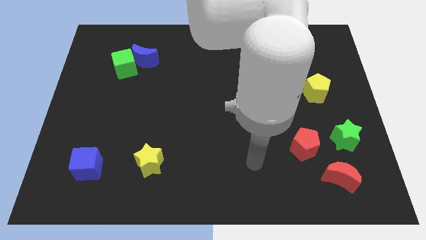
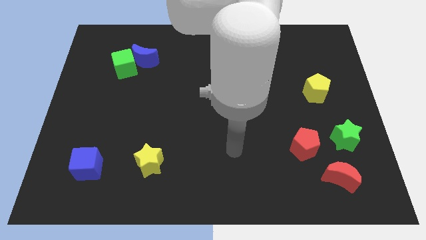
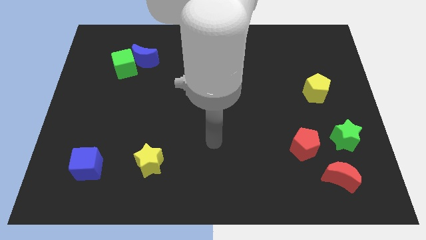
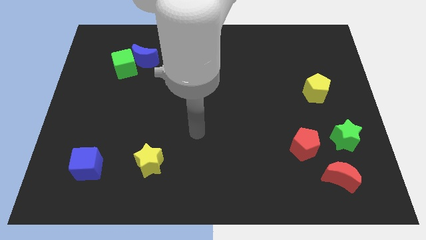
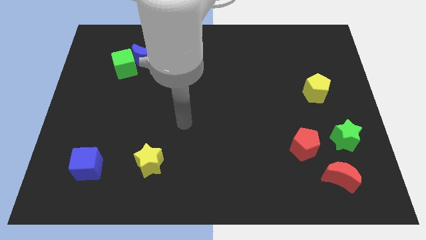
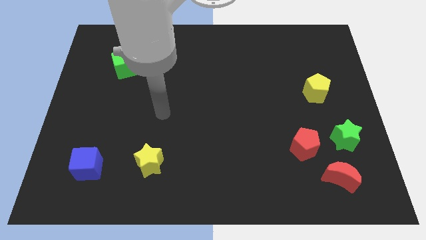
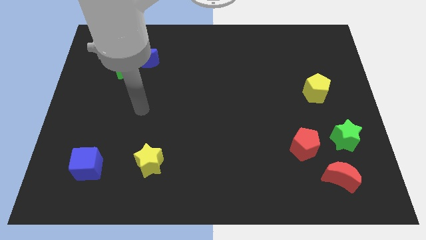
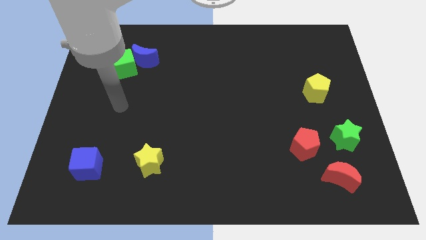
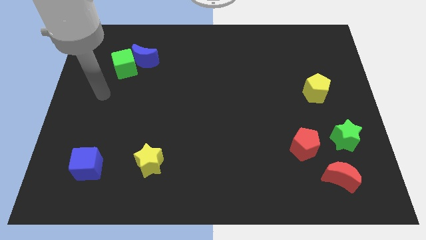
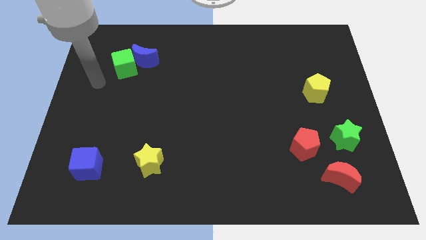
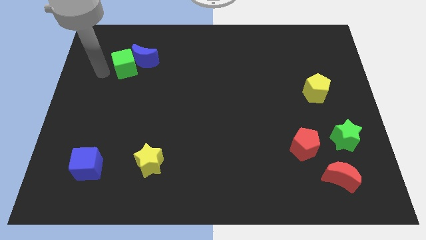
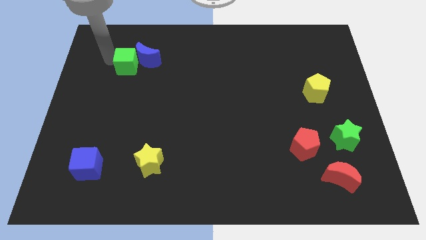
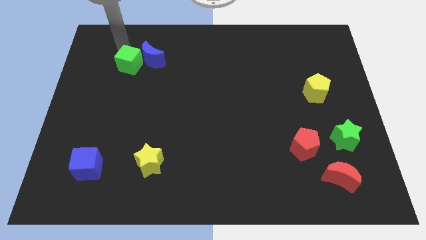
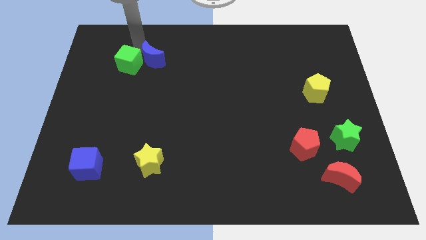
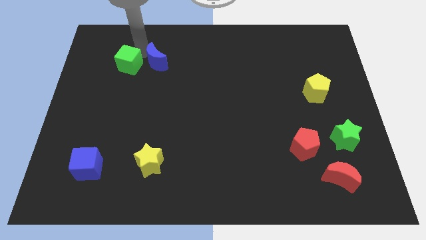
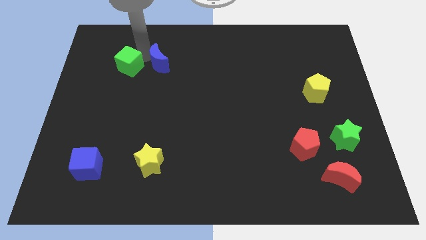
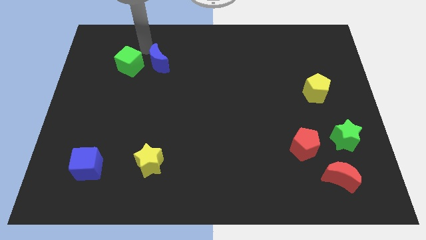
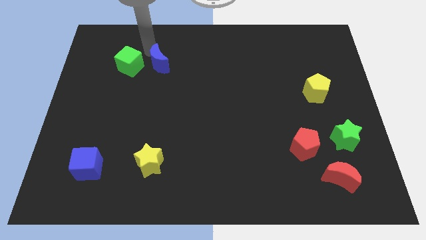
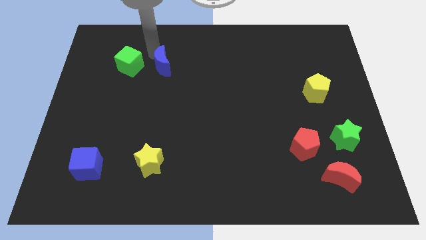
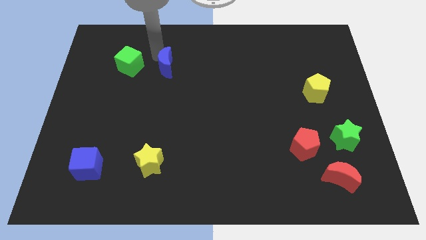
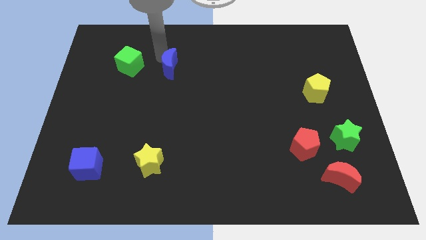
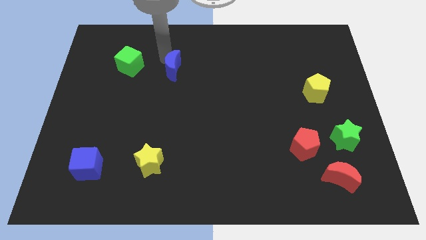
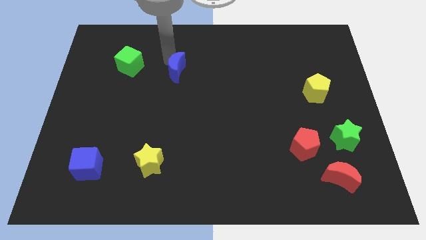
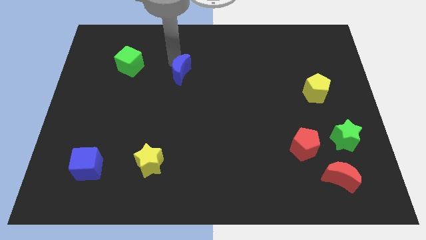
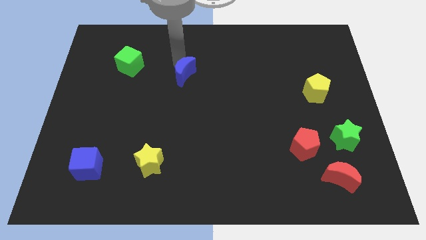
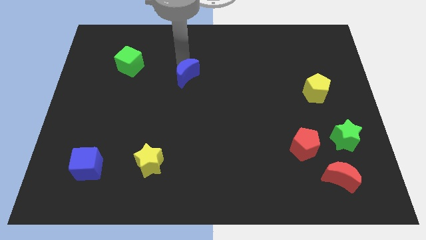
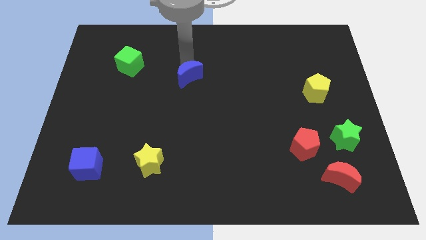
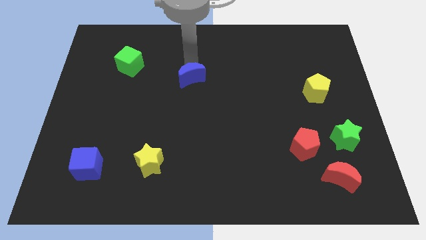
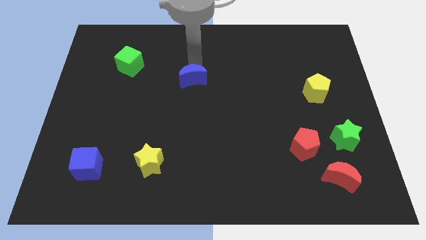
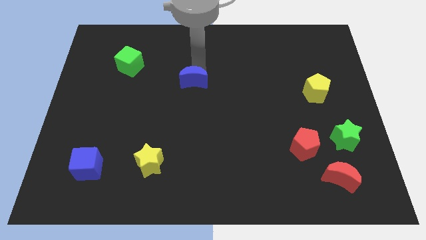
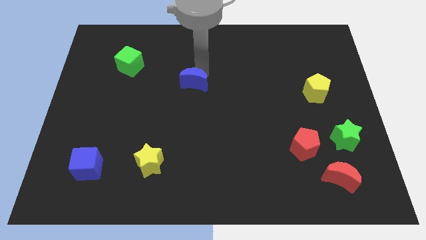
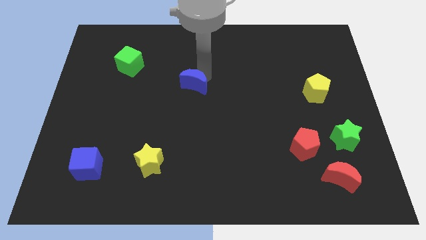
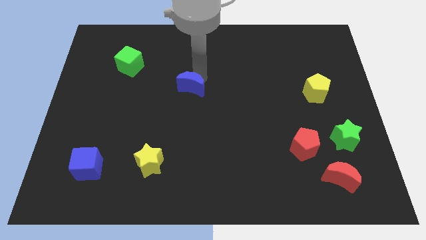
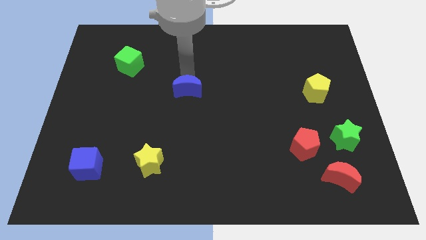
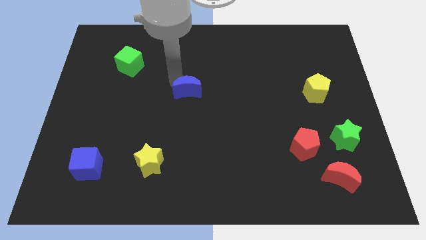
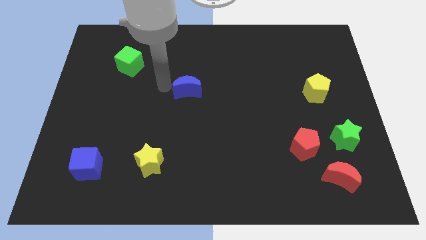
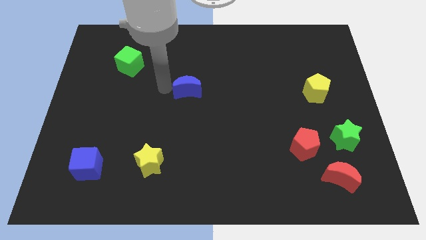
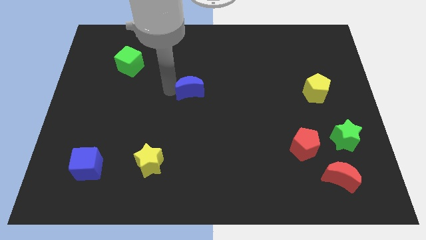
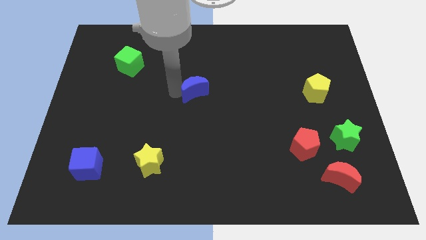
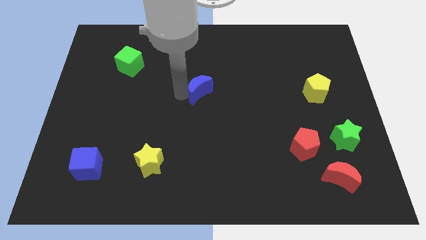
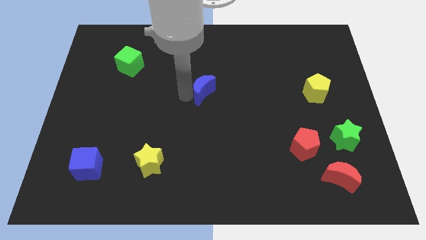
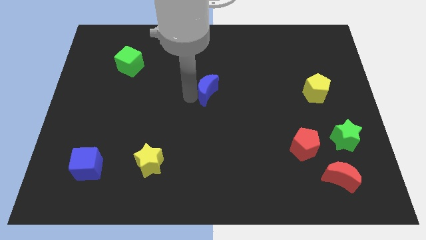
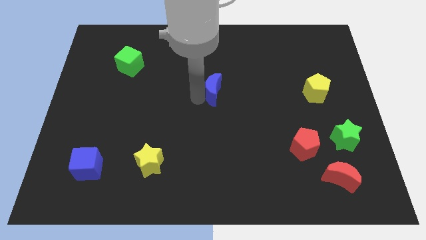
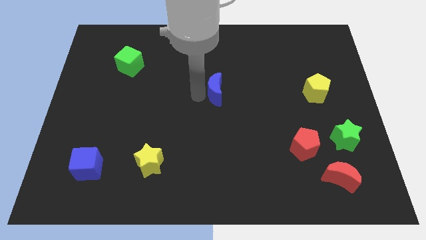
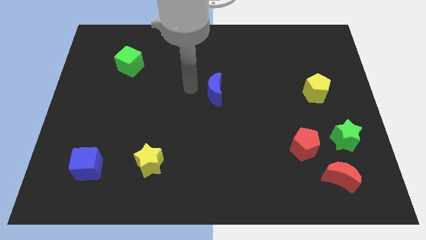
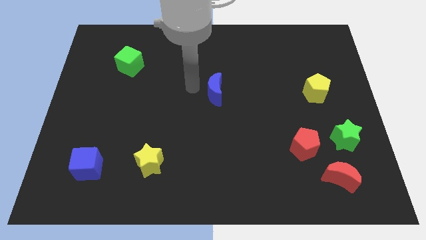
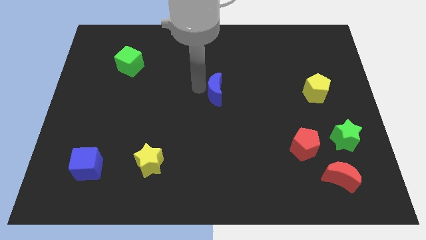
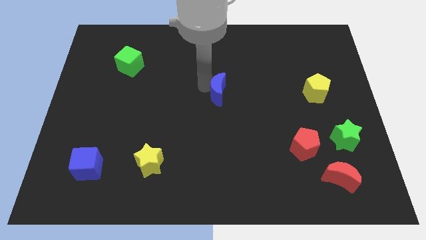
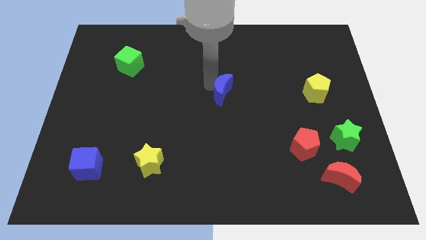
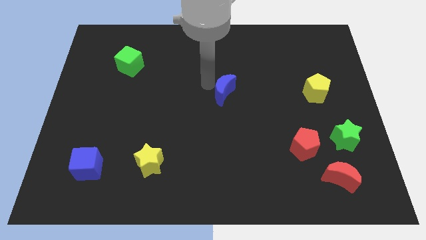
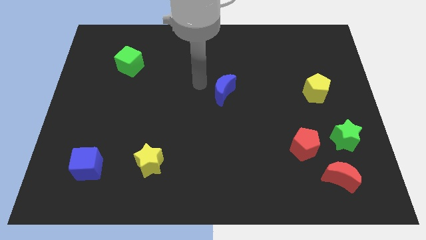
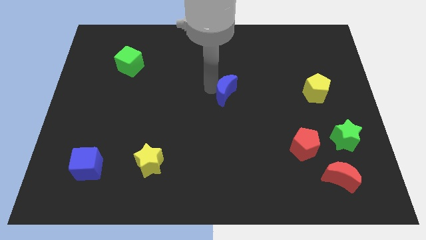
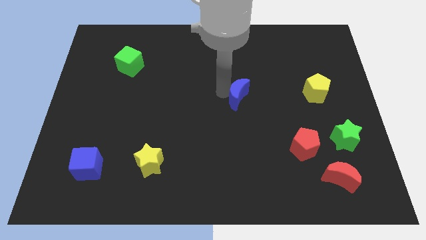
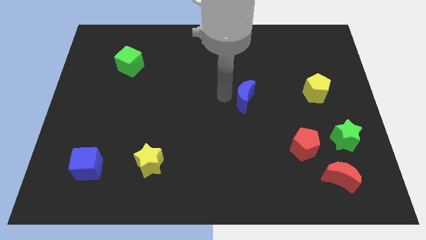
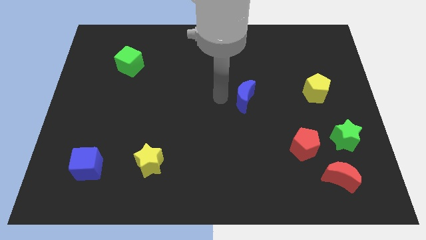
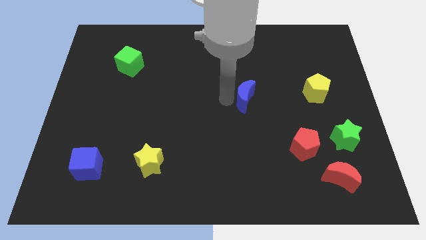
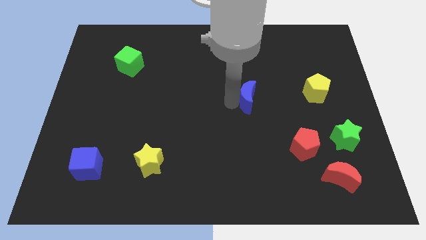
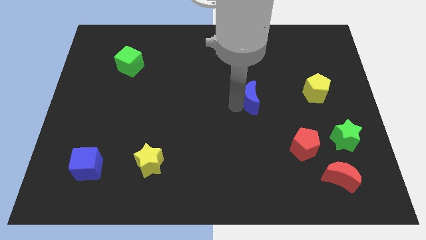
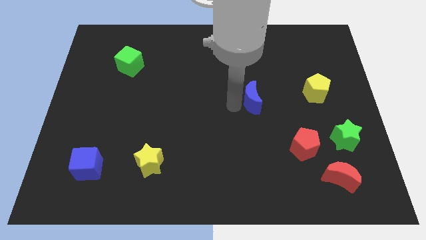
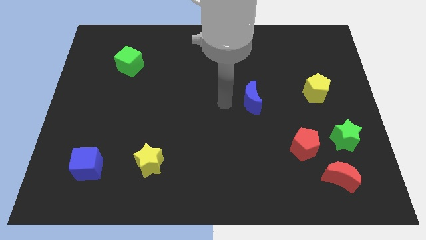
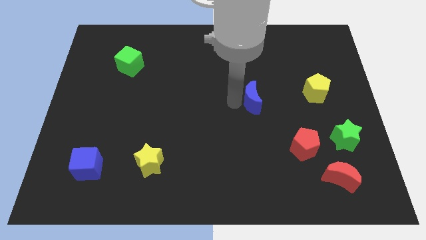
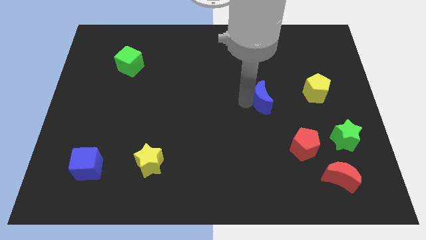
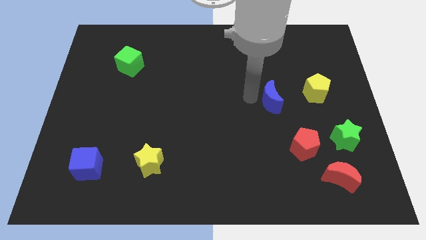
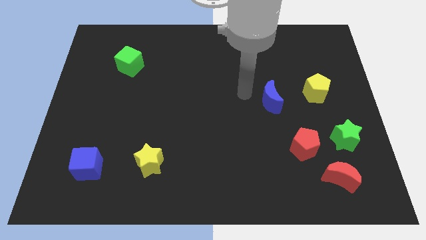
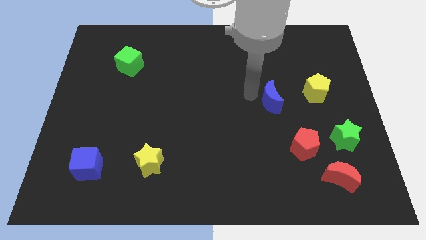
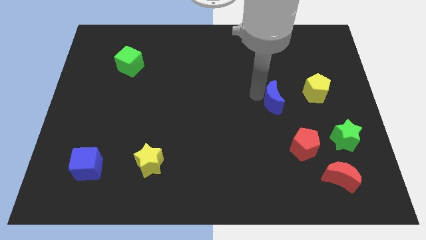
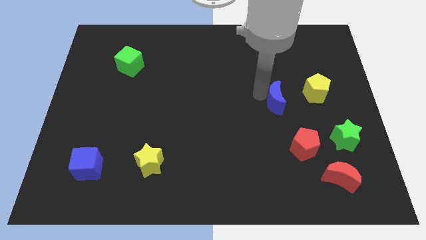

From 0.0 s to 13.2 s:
put the blue moon to the top side of the red pentagon
